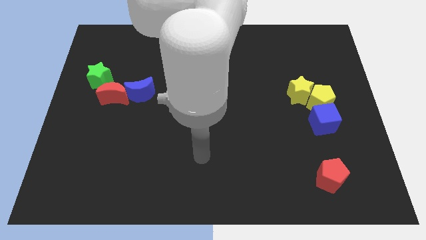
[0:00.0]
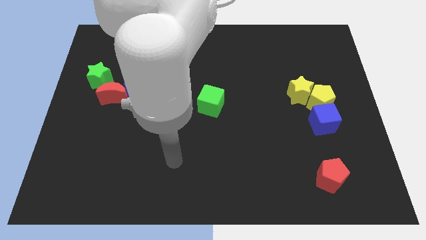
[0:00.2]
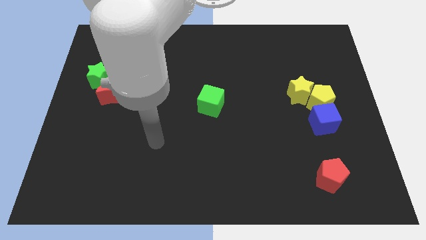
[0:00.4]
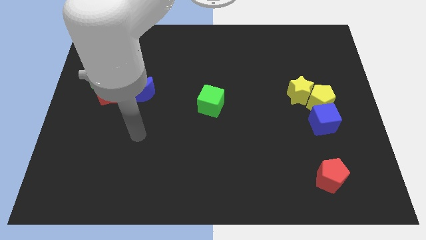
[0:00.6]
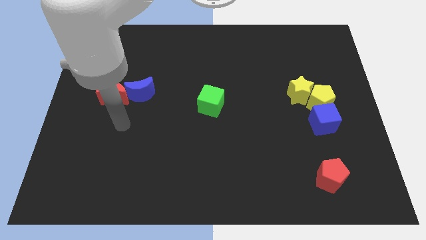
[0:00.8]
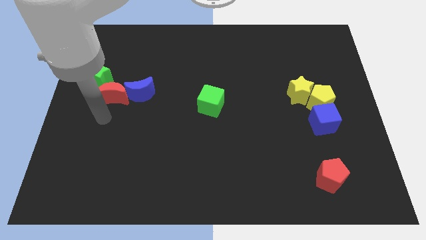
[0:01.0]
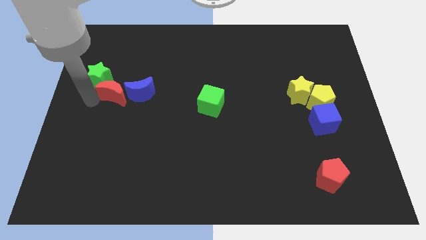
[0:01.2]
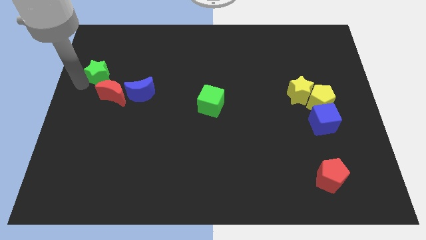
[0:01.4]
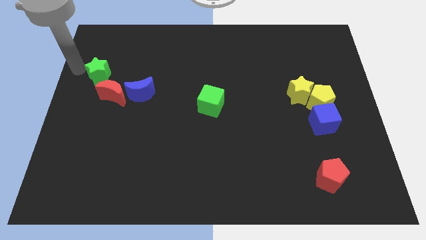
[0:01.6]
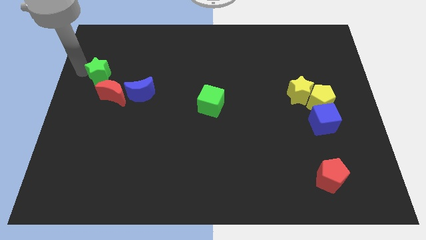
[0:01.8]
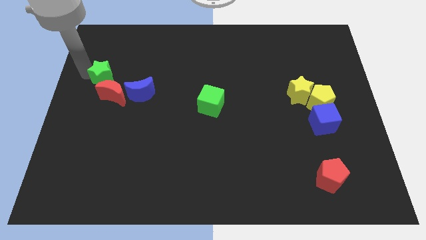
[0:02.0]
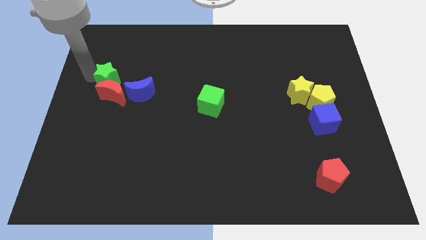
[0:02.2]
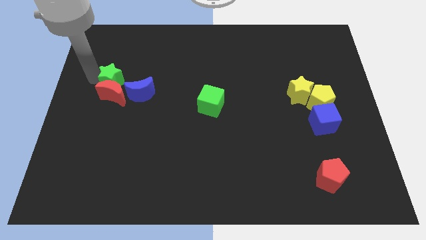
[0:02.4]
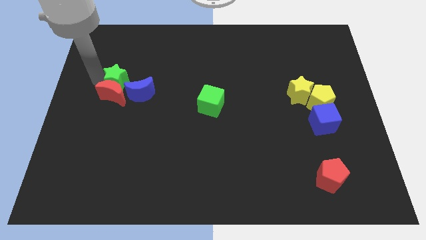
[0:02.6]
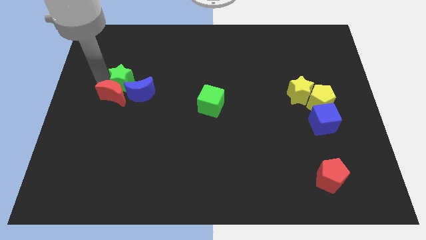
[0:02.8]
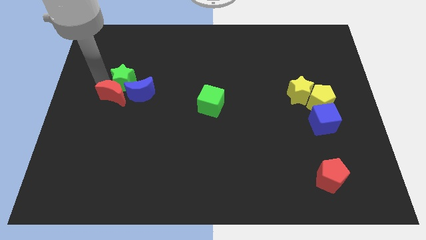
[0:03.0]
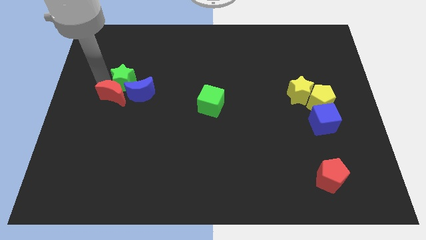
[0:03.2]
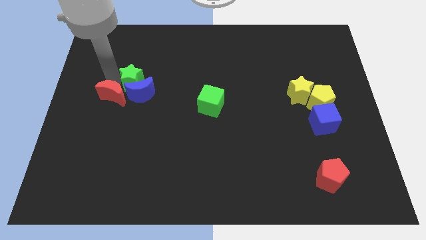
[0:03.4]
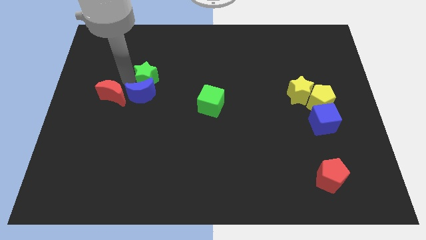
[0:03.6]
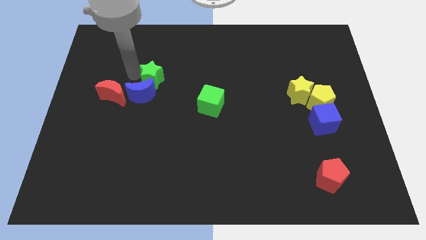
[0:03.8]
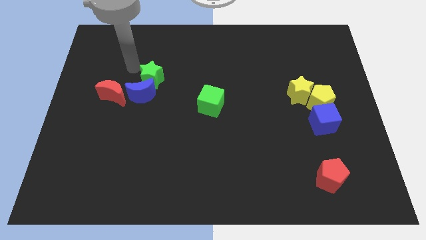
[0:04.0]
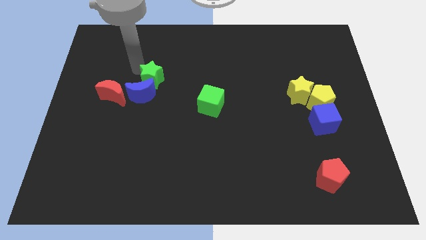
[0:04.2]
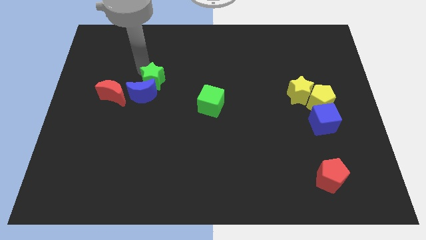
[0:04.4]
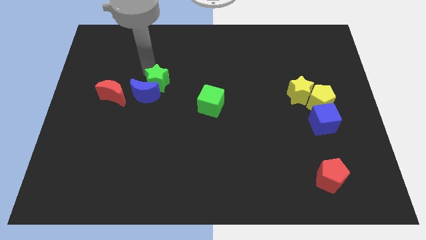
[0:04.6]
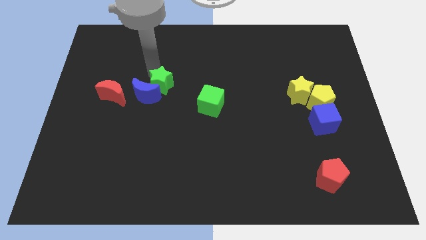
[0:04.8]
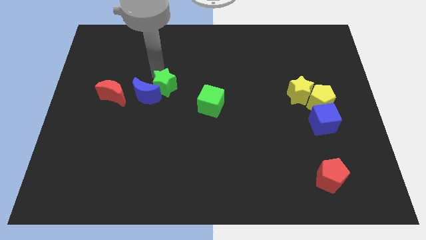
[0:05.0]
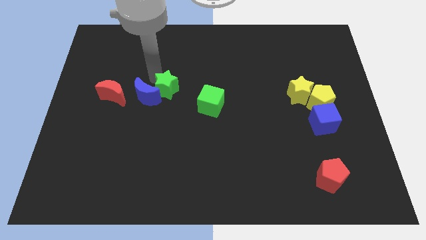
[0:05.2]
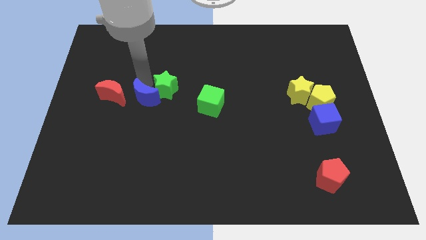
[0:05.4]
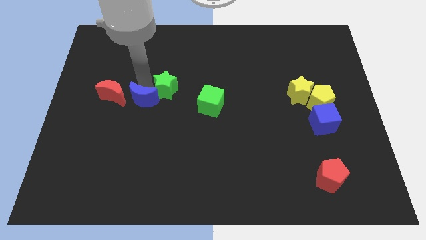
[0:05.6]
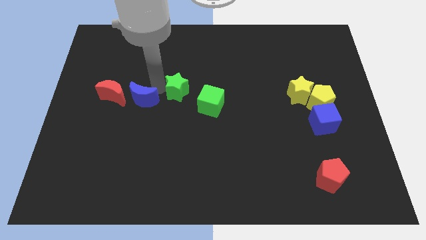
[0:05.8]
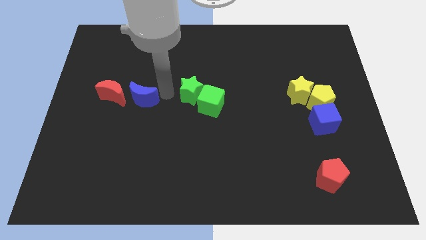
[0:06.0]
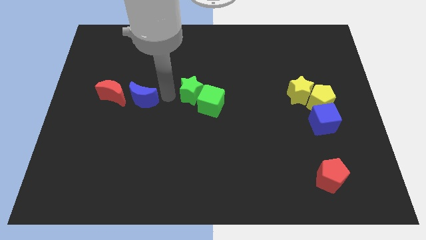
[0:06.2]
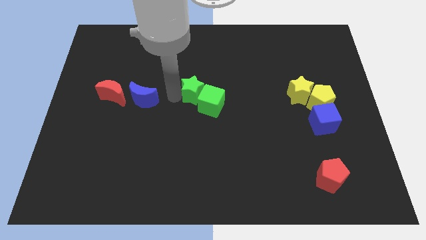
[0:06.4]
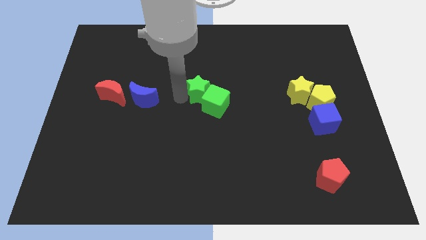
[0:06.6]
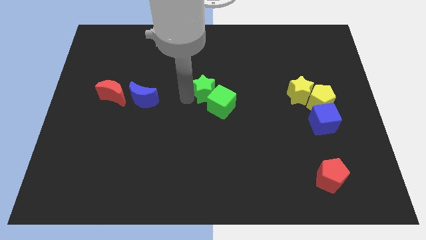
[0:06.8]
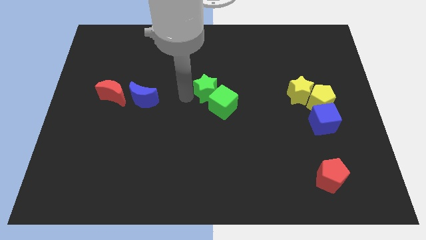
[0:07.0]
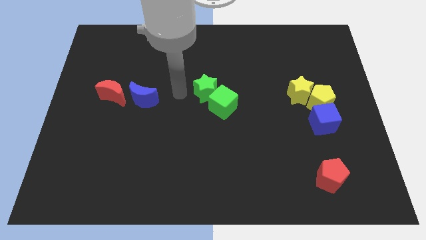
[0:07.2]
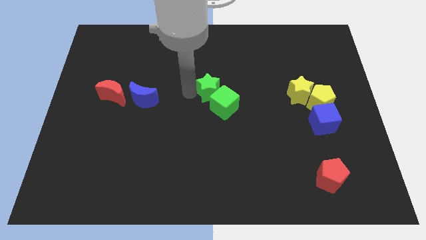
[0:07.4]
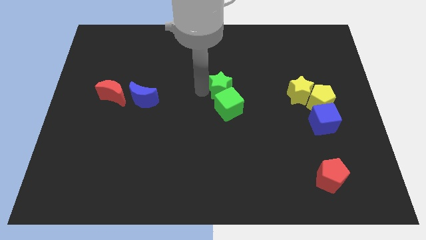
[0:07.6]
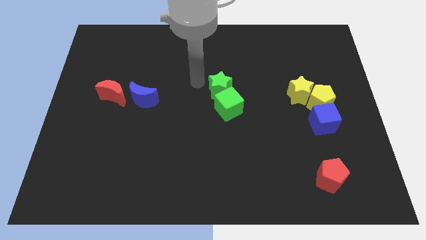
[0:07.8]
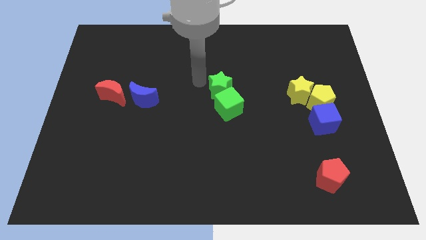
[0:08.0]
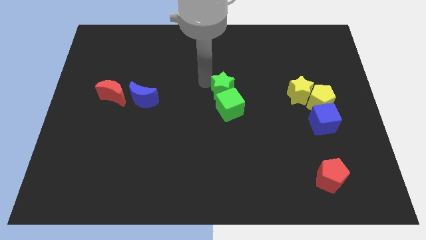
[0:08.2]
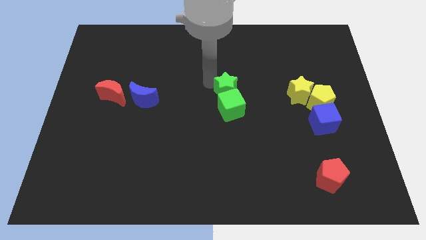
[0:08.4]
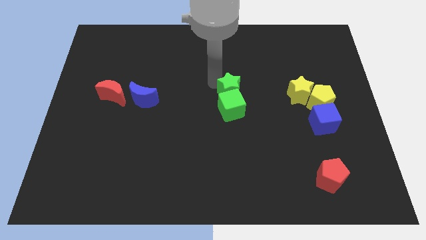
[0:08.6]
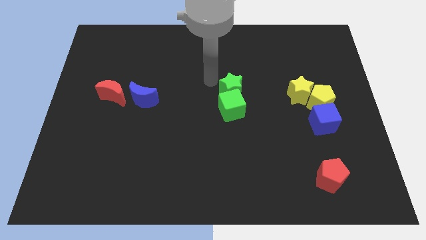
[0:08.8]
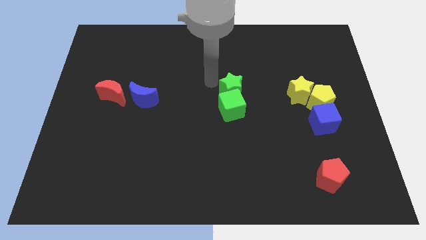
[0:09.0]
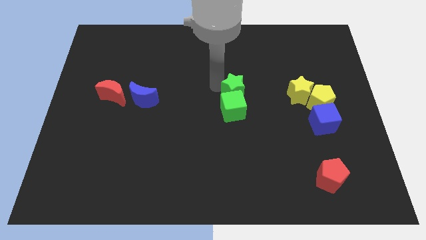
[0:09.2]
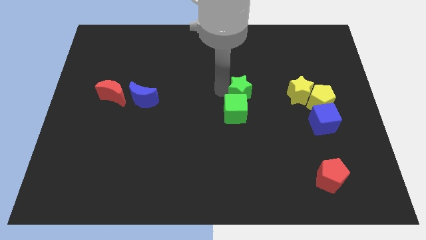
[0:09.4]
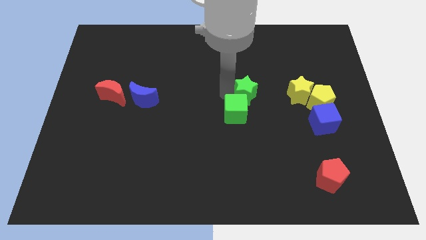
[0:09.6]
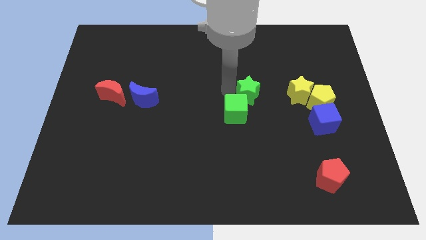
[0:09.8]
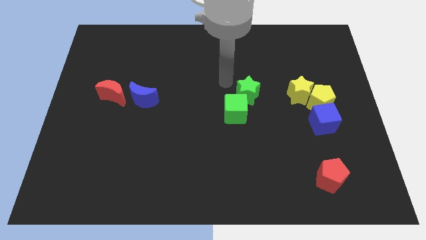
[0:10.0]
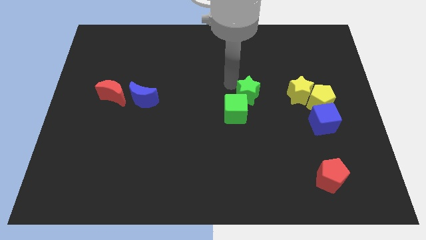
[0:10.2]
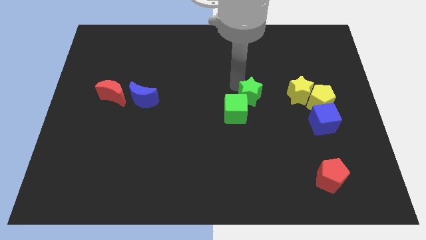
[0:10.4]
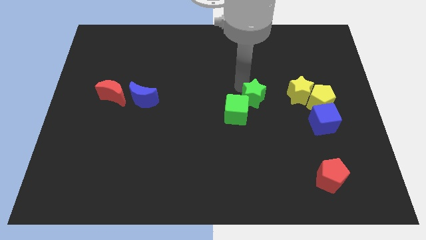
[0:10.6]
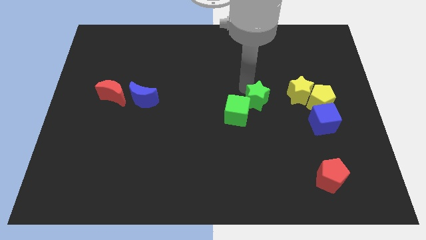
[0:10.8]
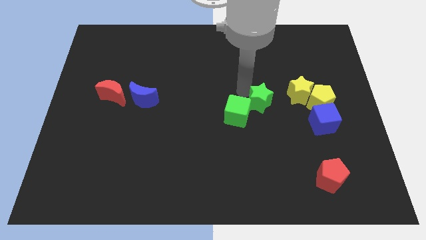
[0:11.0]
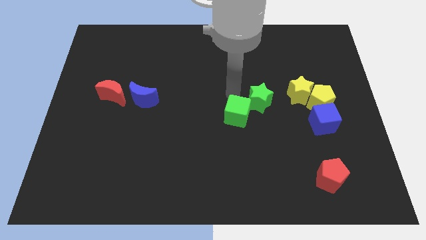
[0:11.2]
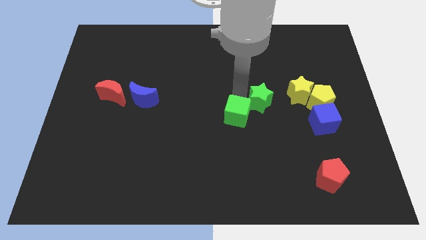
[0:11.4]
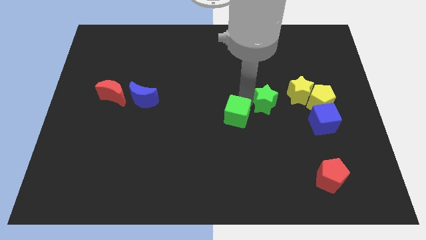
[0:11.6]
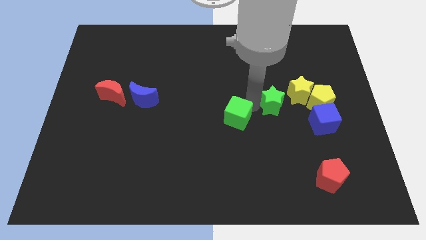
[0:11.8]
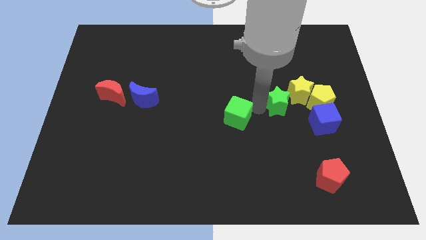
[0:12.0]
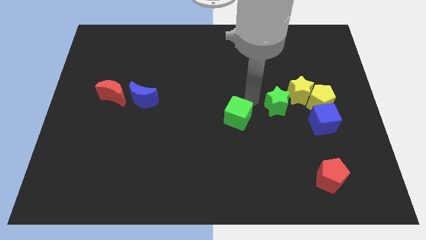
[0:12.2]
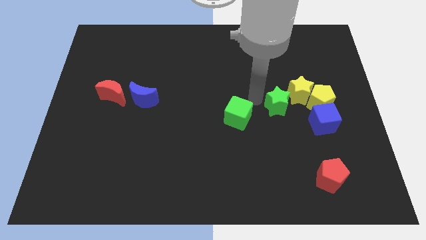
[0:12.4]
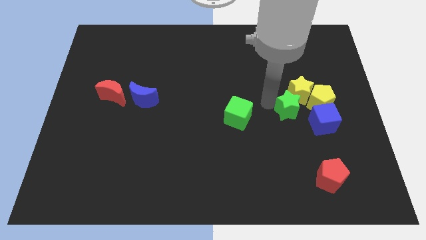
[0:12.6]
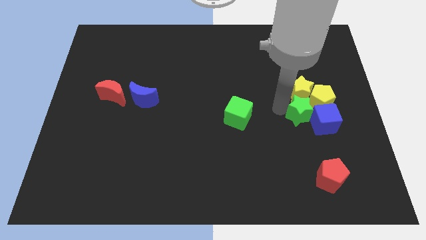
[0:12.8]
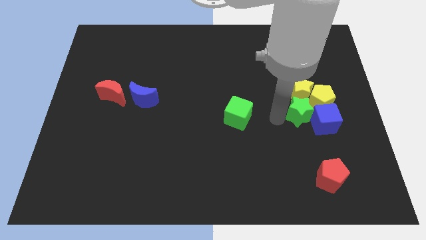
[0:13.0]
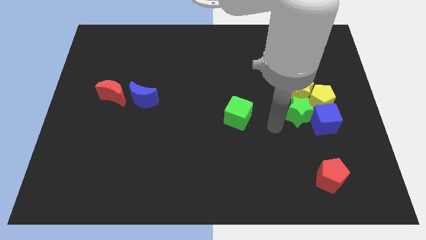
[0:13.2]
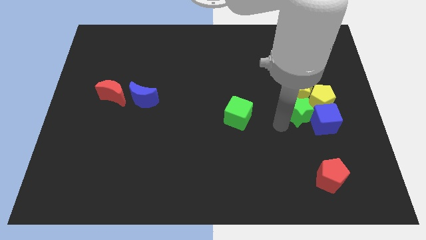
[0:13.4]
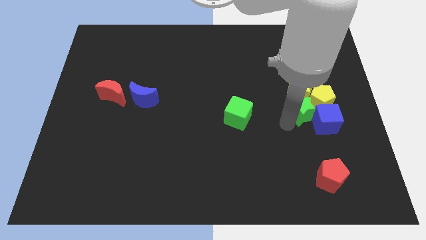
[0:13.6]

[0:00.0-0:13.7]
push the green star close to the yellow pentagon
